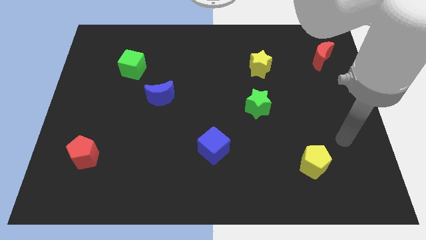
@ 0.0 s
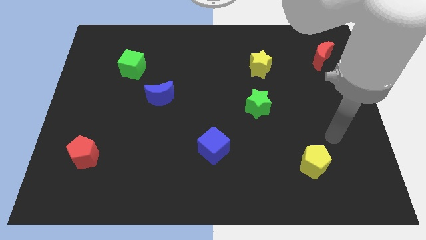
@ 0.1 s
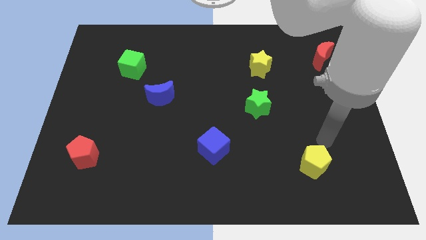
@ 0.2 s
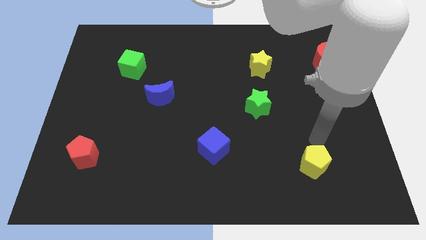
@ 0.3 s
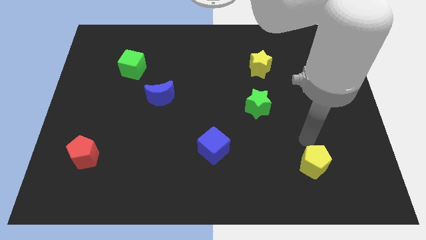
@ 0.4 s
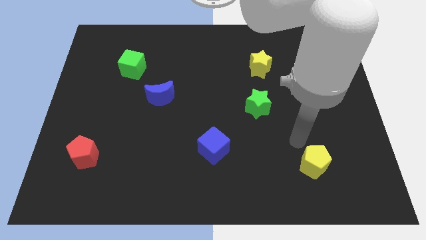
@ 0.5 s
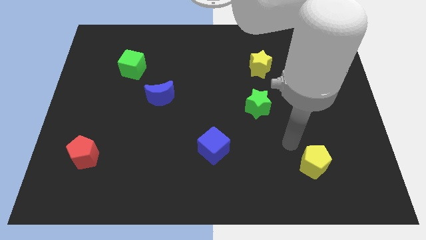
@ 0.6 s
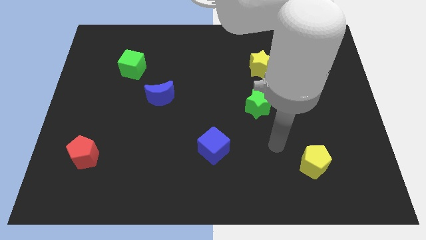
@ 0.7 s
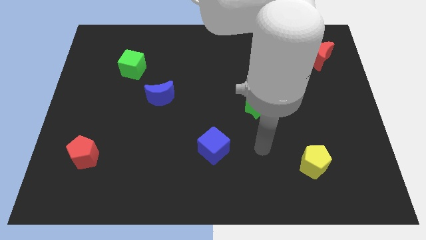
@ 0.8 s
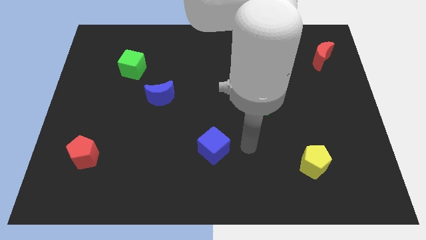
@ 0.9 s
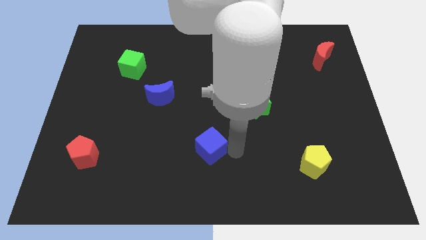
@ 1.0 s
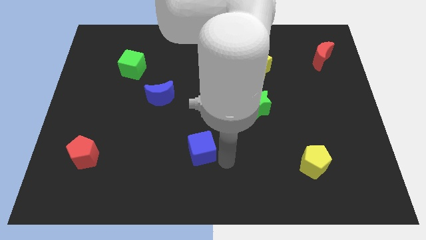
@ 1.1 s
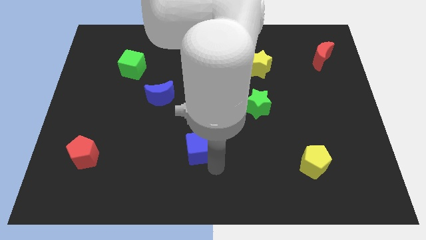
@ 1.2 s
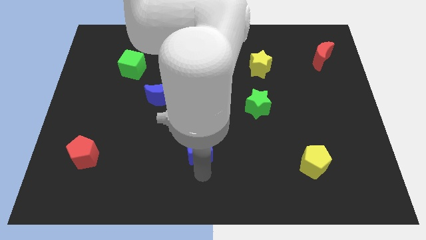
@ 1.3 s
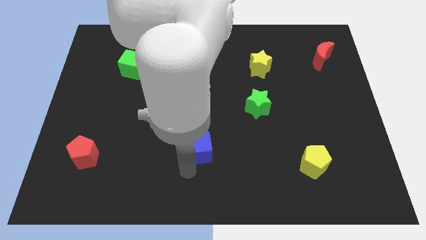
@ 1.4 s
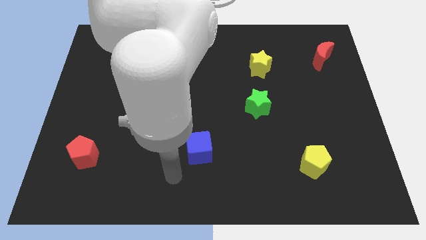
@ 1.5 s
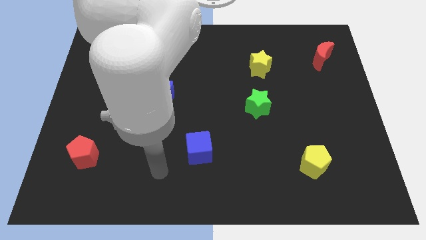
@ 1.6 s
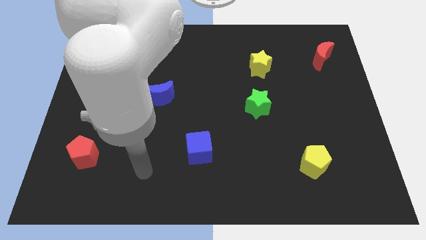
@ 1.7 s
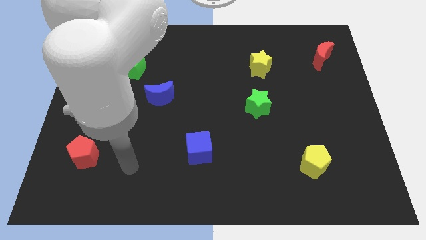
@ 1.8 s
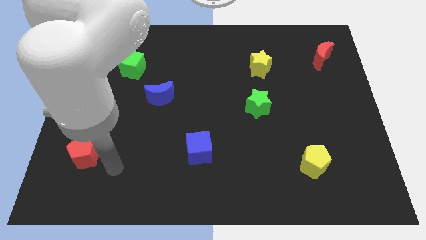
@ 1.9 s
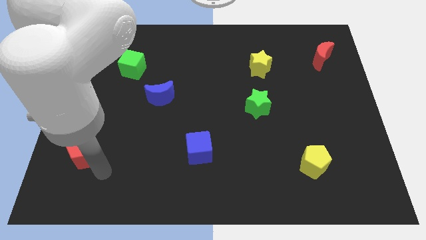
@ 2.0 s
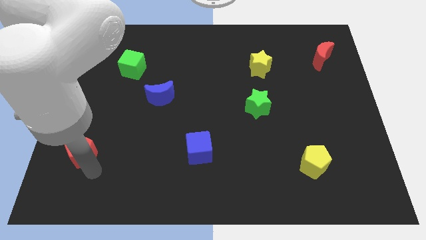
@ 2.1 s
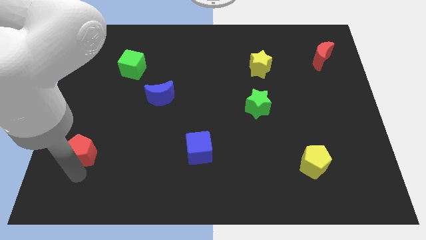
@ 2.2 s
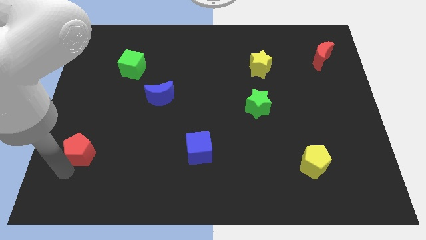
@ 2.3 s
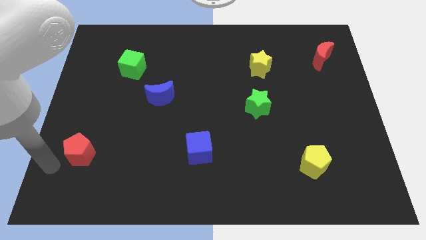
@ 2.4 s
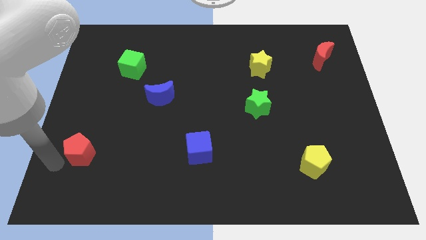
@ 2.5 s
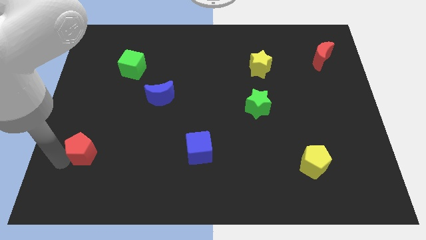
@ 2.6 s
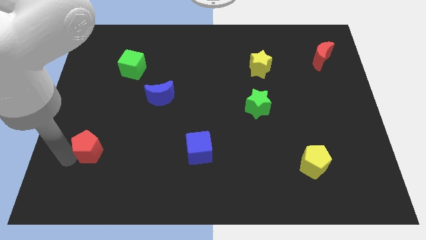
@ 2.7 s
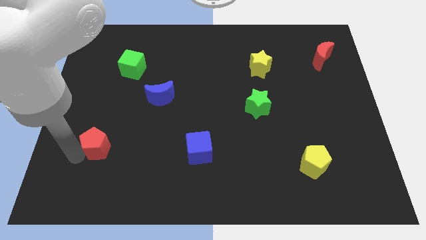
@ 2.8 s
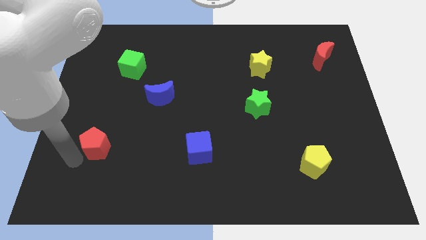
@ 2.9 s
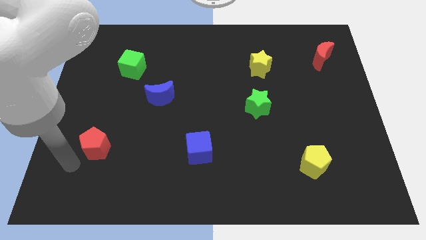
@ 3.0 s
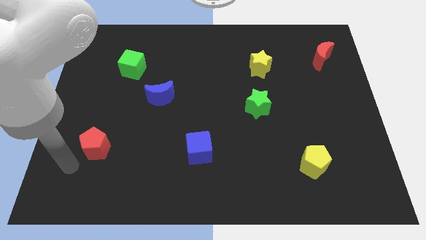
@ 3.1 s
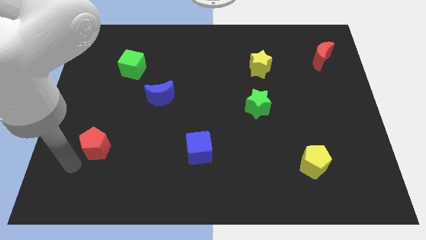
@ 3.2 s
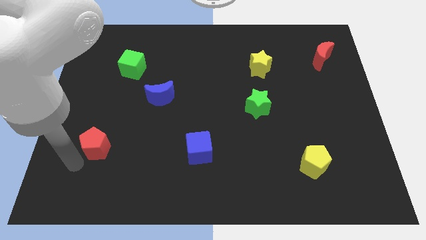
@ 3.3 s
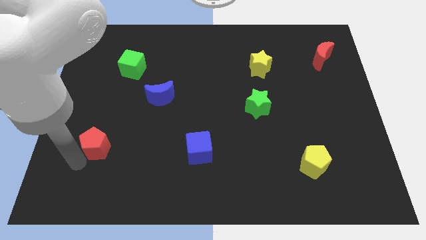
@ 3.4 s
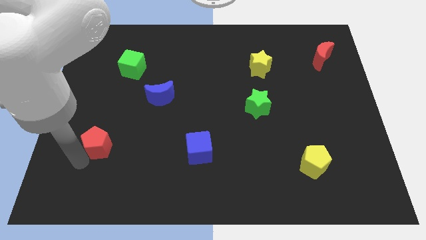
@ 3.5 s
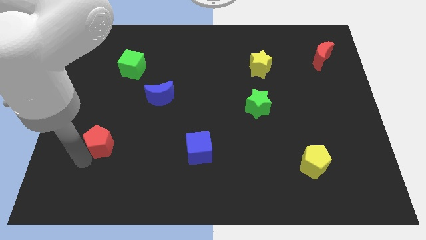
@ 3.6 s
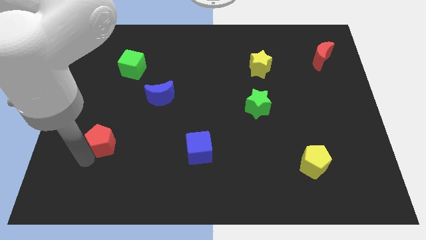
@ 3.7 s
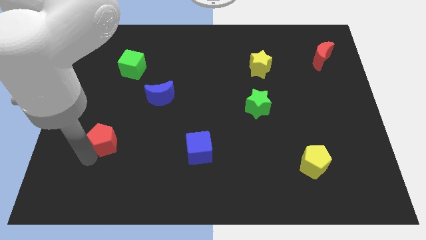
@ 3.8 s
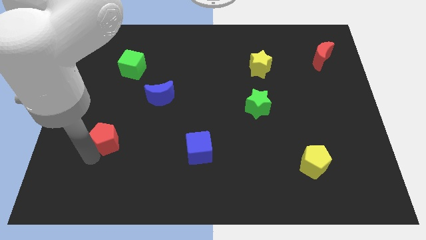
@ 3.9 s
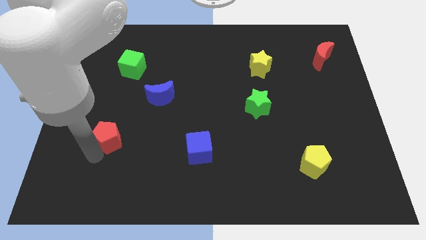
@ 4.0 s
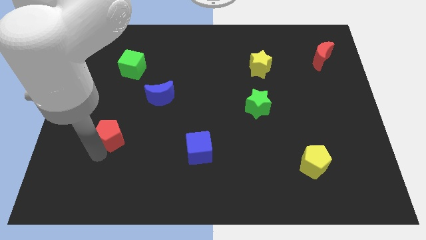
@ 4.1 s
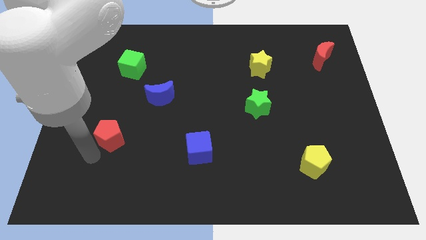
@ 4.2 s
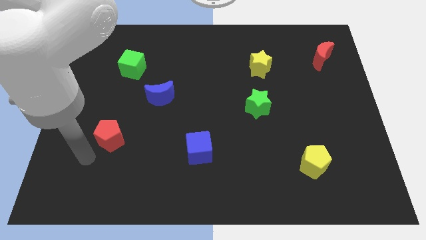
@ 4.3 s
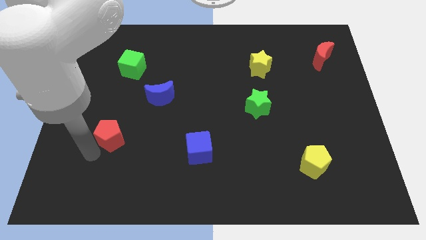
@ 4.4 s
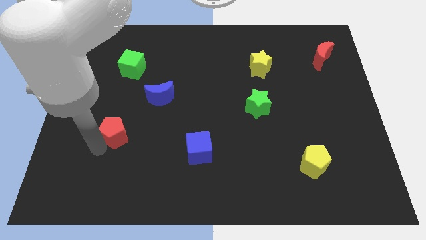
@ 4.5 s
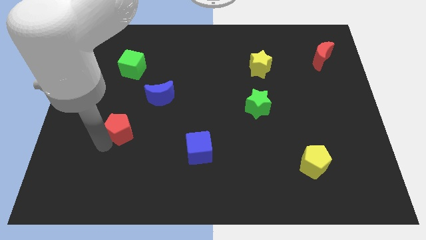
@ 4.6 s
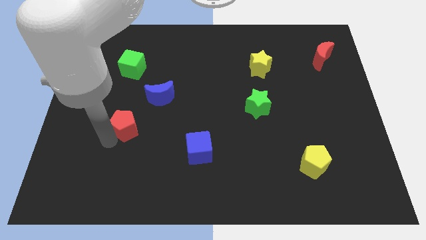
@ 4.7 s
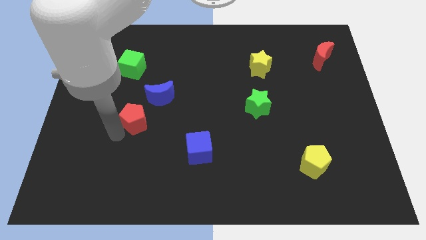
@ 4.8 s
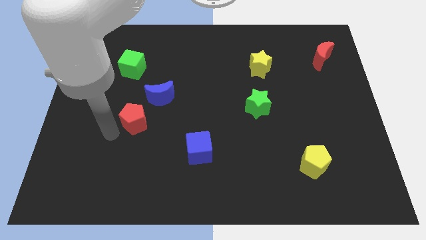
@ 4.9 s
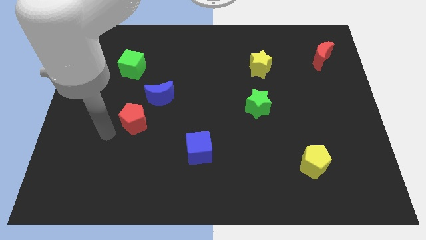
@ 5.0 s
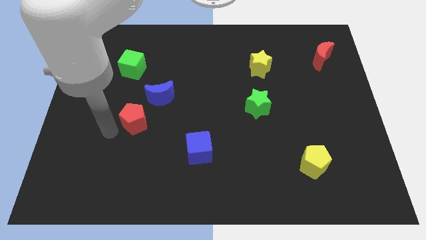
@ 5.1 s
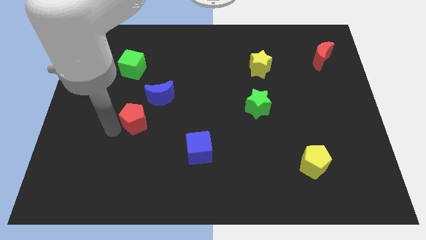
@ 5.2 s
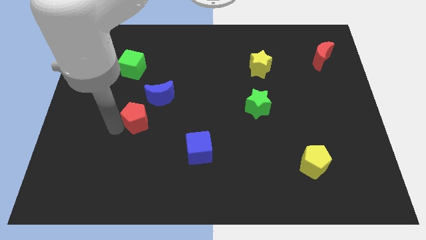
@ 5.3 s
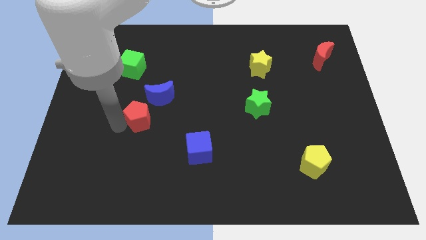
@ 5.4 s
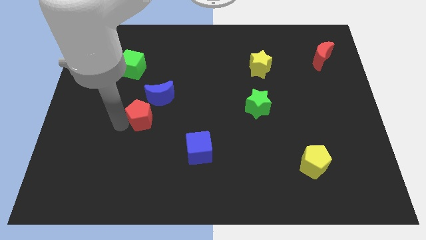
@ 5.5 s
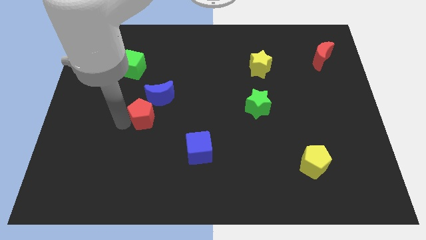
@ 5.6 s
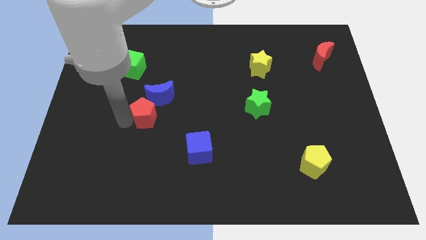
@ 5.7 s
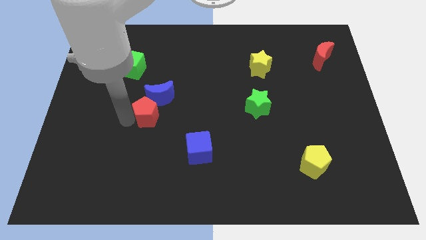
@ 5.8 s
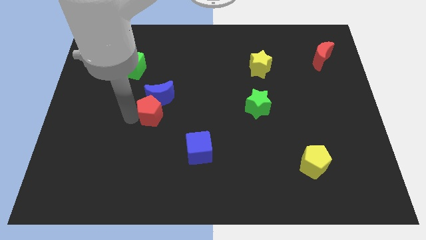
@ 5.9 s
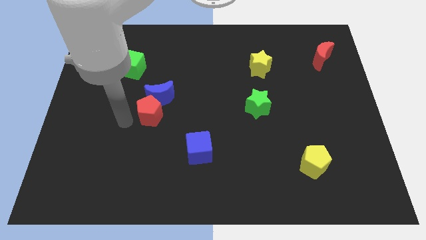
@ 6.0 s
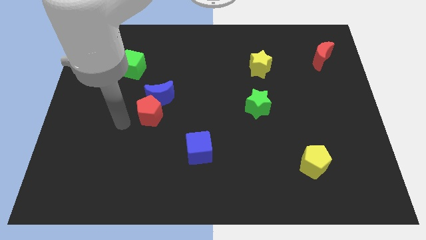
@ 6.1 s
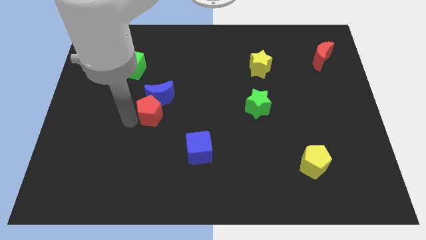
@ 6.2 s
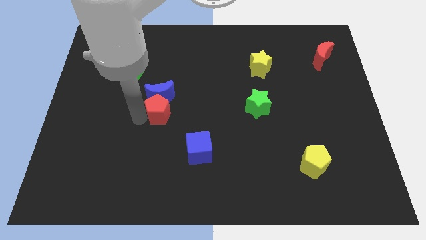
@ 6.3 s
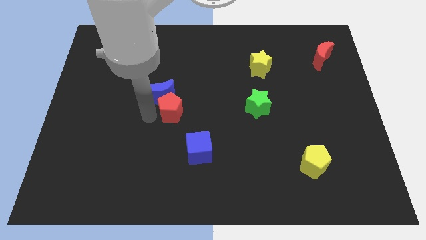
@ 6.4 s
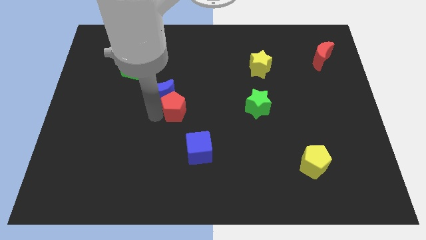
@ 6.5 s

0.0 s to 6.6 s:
move the red pentagon to the right side of the blue moon

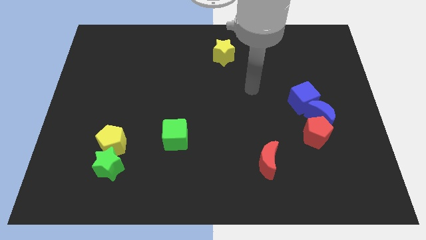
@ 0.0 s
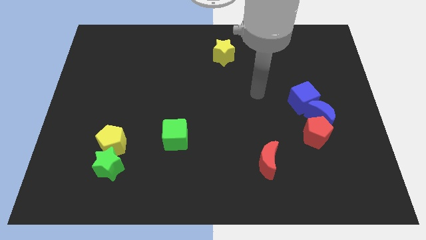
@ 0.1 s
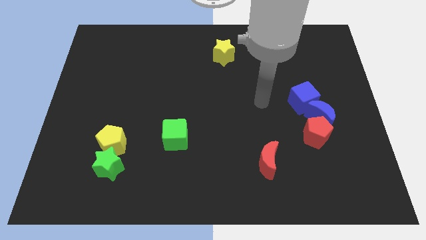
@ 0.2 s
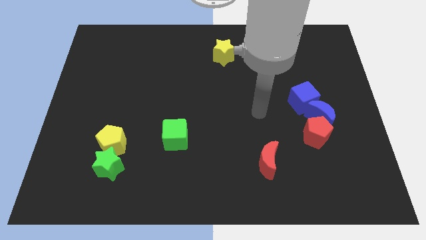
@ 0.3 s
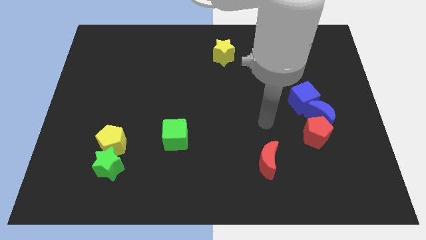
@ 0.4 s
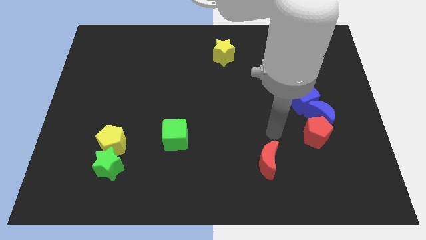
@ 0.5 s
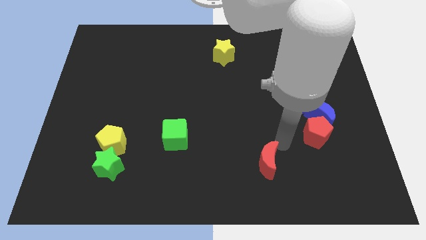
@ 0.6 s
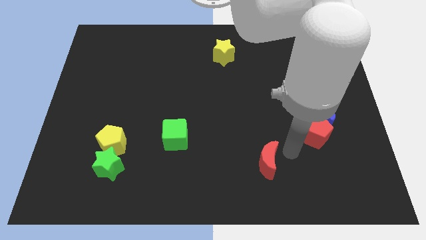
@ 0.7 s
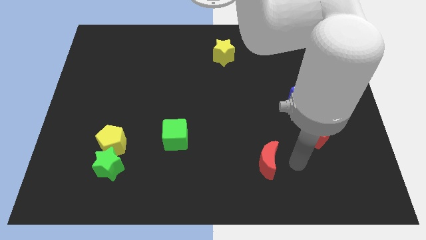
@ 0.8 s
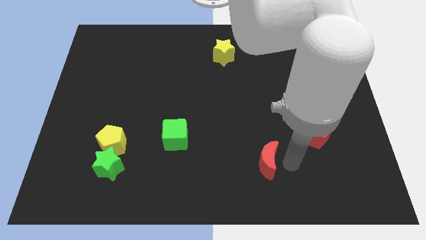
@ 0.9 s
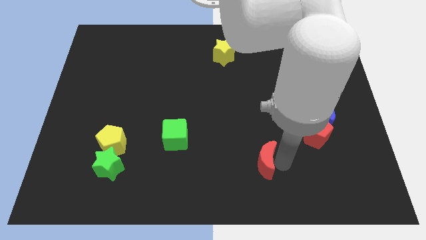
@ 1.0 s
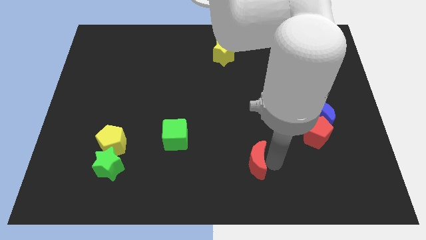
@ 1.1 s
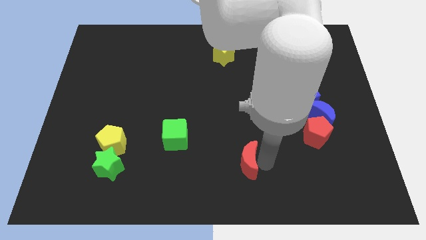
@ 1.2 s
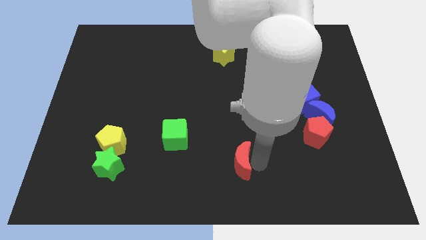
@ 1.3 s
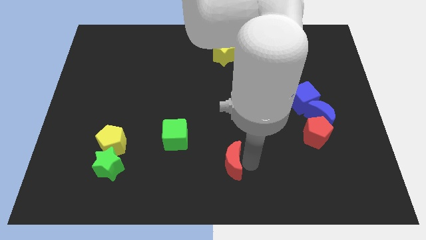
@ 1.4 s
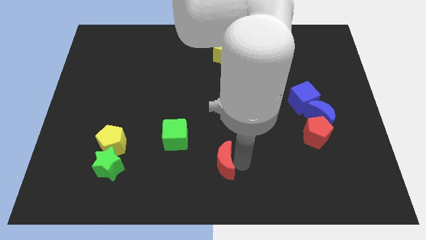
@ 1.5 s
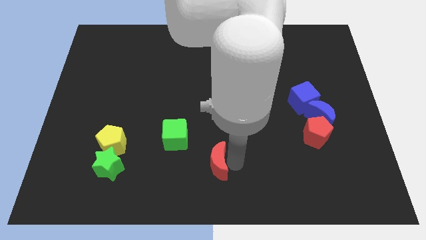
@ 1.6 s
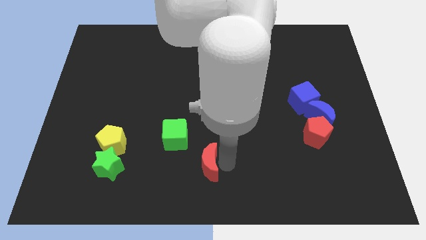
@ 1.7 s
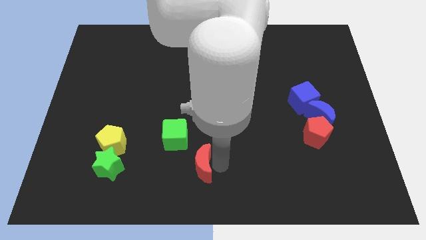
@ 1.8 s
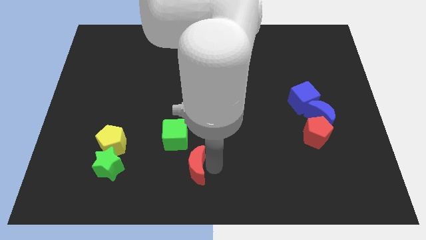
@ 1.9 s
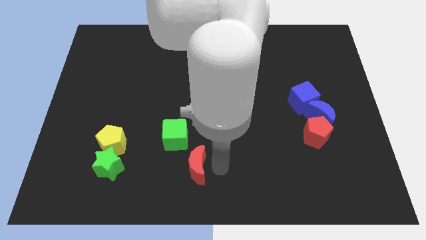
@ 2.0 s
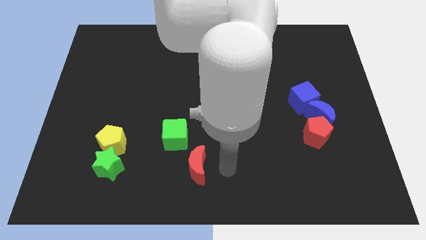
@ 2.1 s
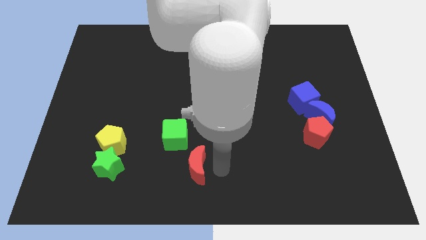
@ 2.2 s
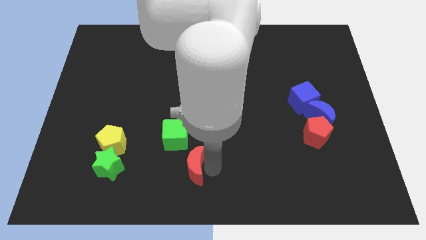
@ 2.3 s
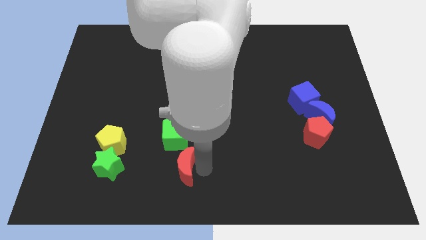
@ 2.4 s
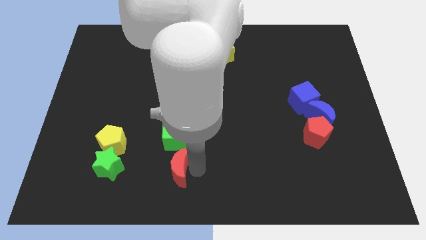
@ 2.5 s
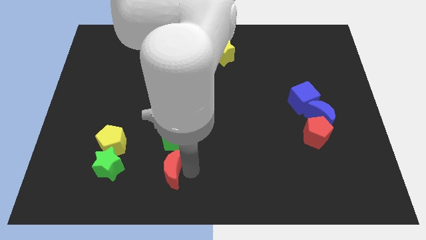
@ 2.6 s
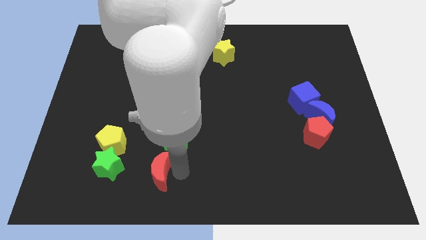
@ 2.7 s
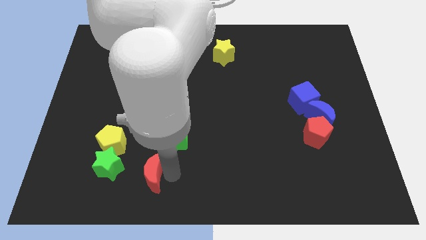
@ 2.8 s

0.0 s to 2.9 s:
push the red moon to the bottom right side of the yellow pentagon
